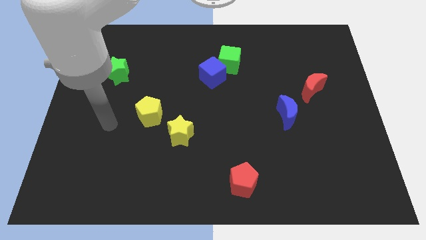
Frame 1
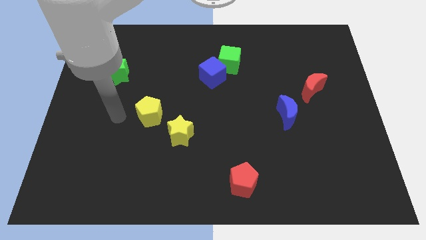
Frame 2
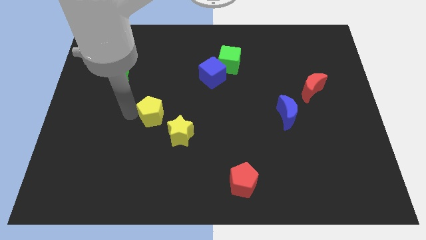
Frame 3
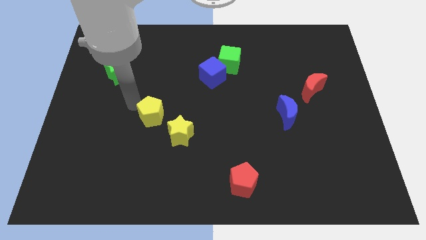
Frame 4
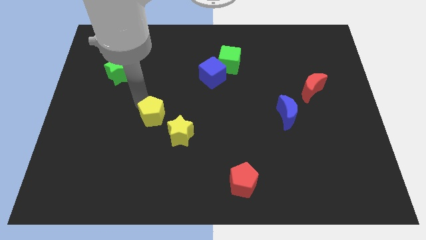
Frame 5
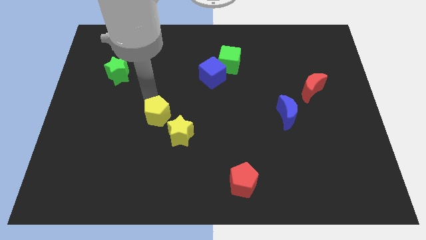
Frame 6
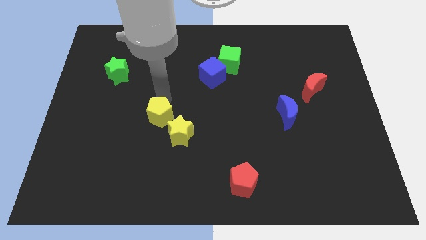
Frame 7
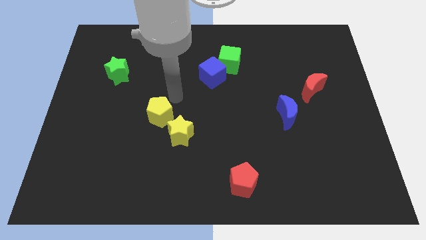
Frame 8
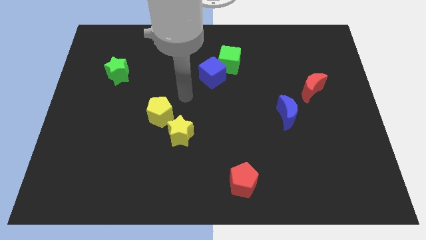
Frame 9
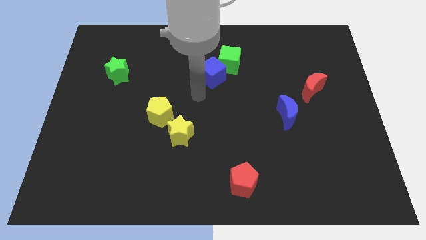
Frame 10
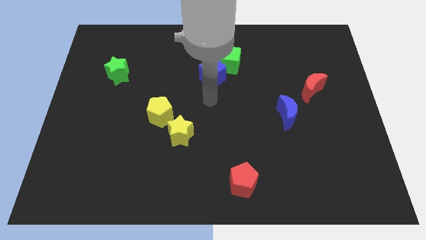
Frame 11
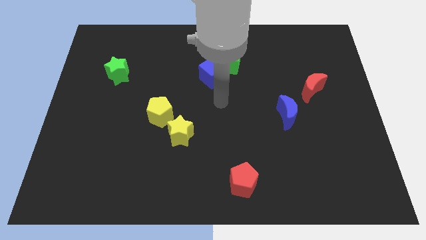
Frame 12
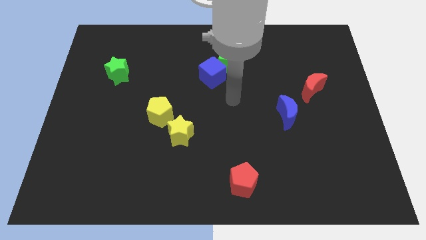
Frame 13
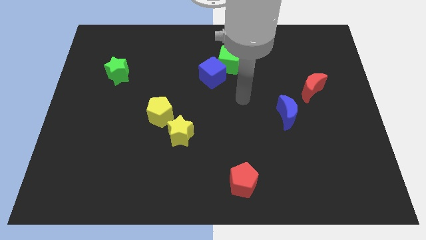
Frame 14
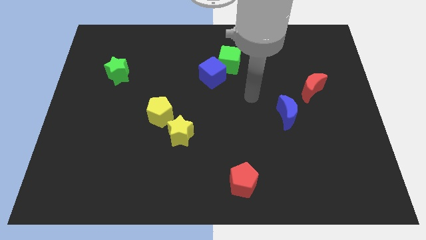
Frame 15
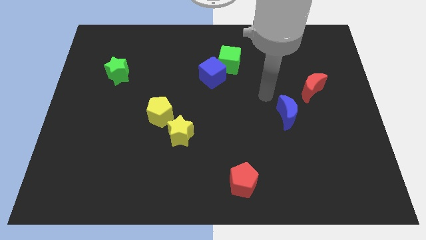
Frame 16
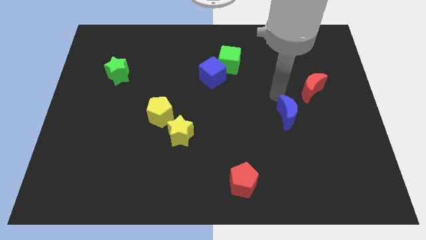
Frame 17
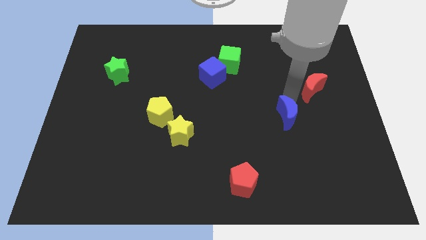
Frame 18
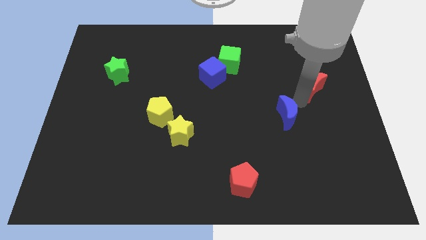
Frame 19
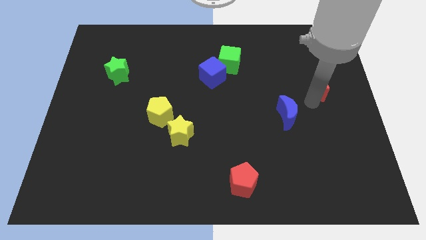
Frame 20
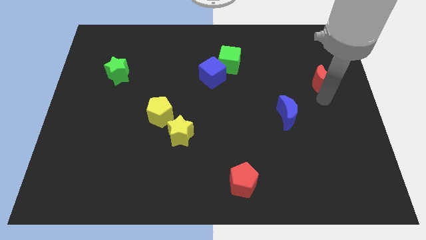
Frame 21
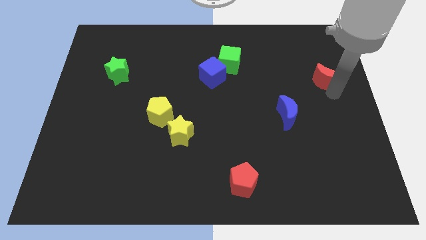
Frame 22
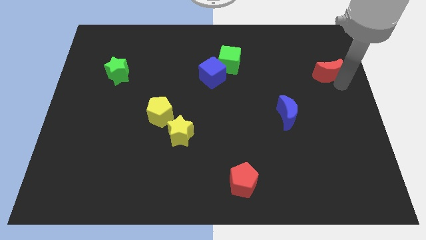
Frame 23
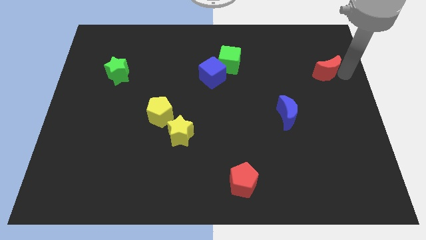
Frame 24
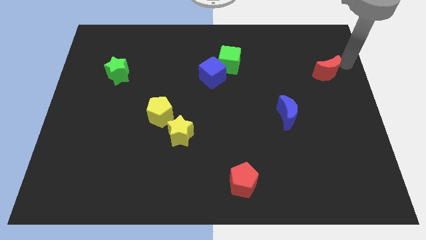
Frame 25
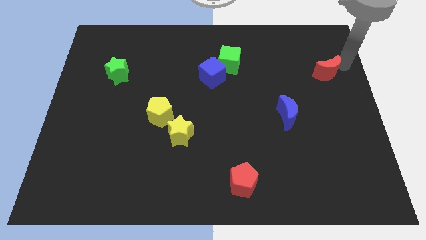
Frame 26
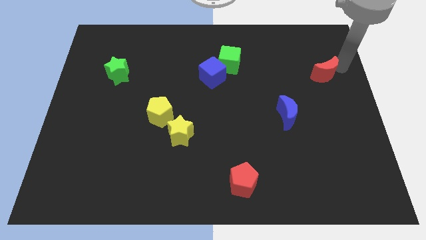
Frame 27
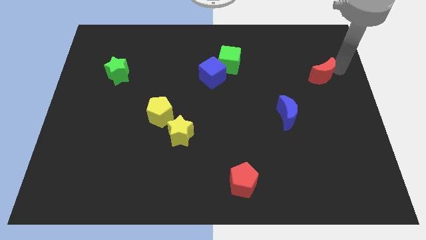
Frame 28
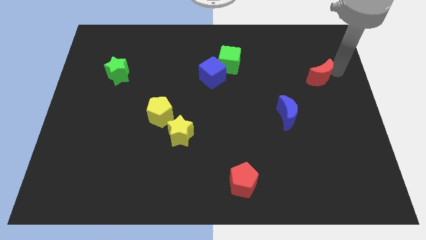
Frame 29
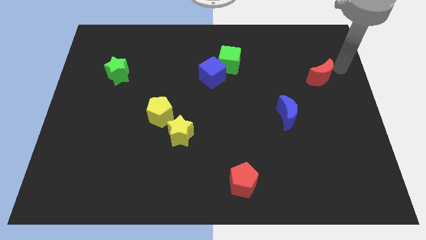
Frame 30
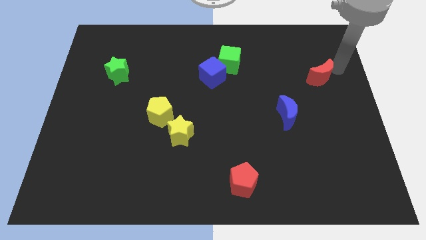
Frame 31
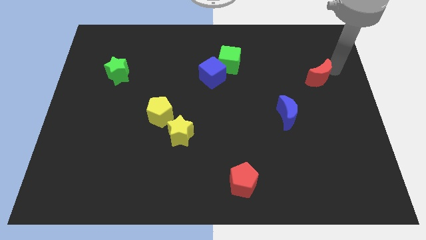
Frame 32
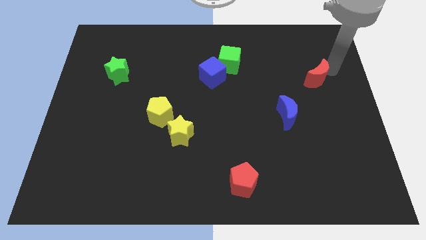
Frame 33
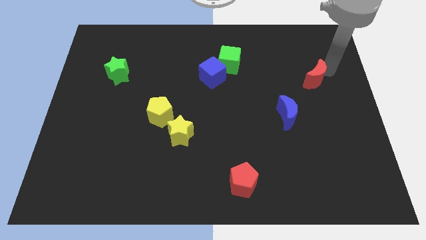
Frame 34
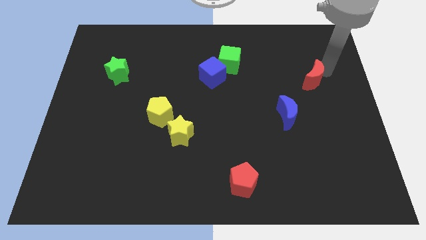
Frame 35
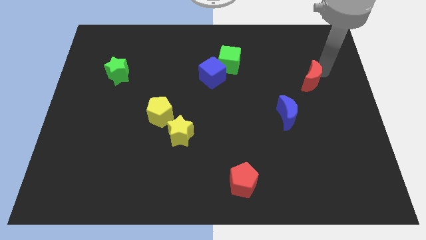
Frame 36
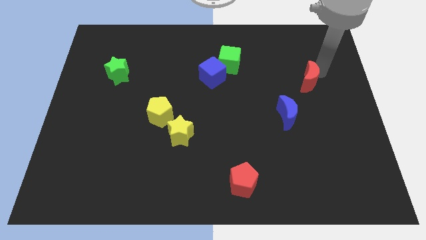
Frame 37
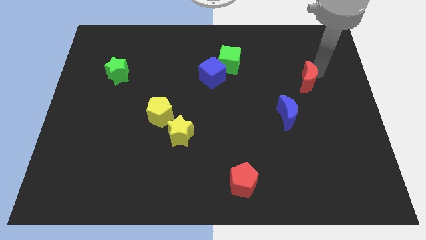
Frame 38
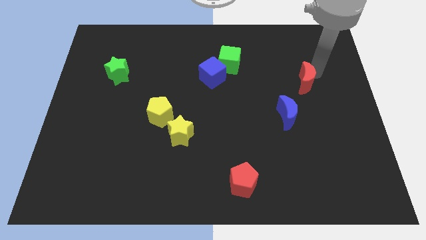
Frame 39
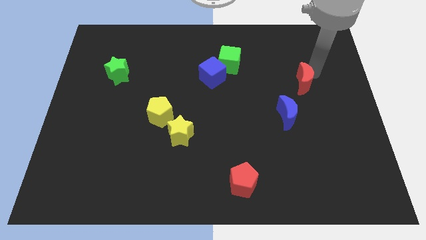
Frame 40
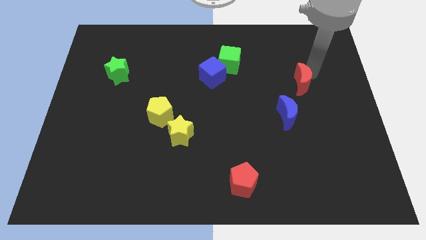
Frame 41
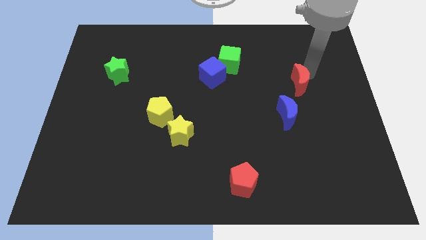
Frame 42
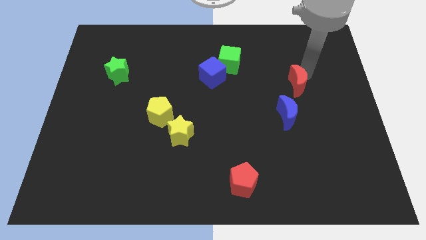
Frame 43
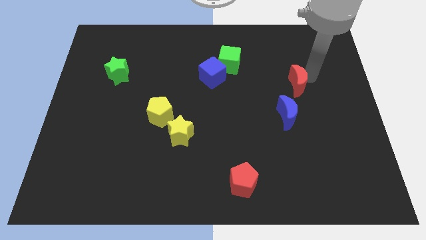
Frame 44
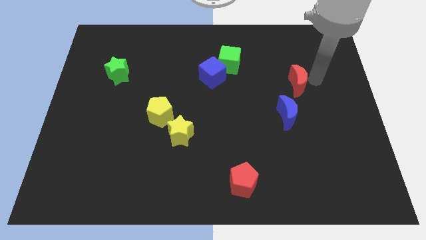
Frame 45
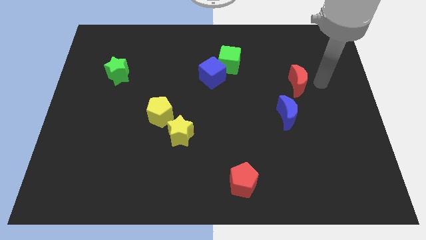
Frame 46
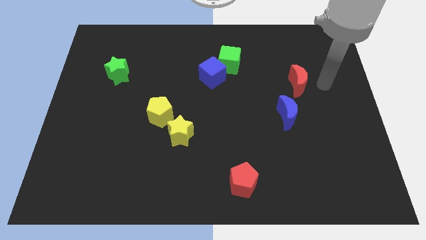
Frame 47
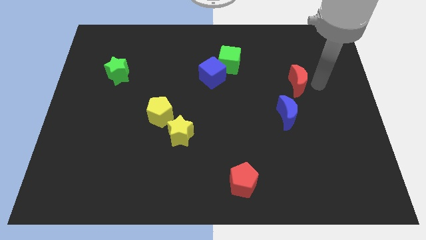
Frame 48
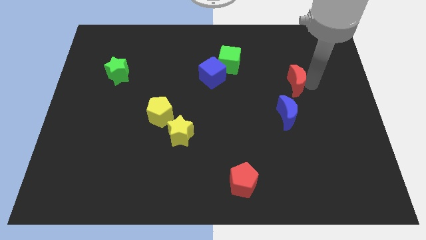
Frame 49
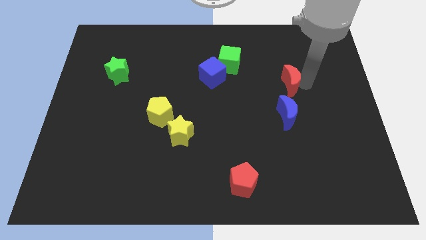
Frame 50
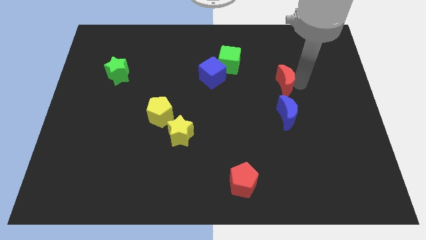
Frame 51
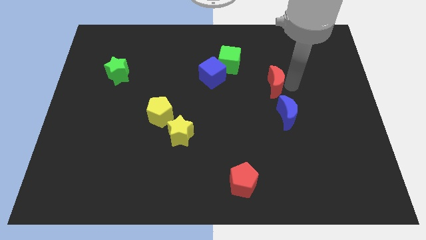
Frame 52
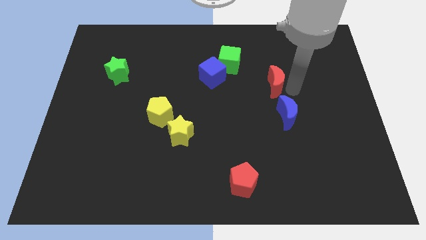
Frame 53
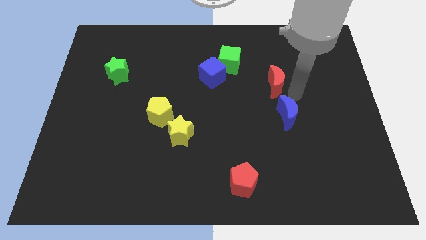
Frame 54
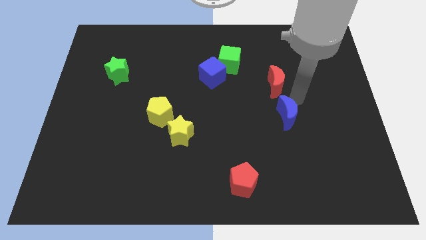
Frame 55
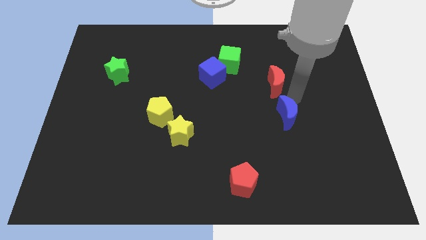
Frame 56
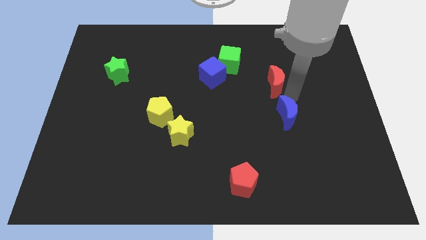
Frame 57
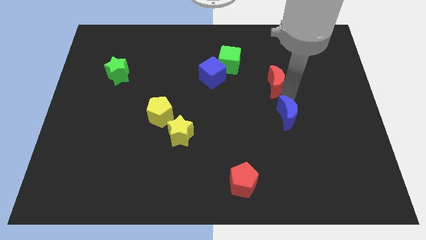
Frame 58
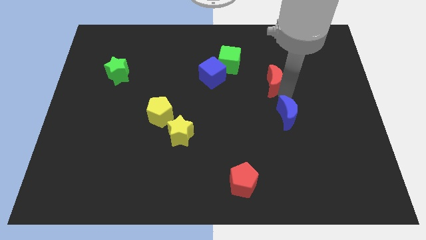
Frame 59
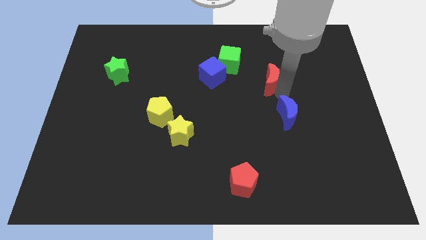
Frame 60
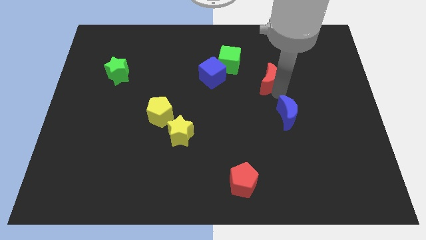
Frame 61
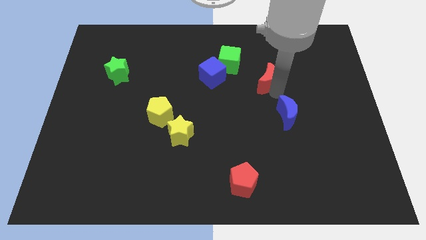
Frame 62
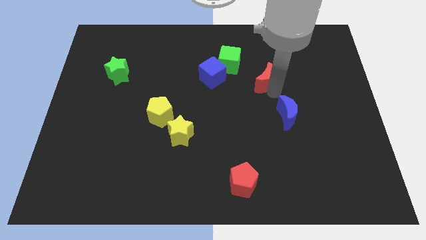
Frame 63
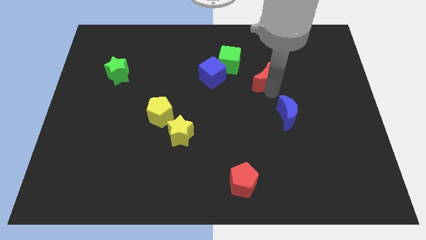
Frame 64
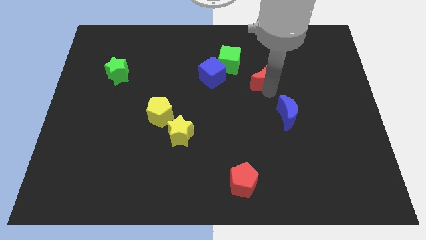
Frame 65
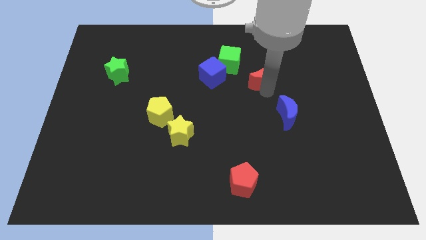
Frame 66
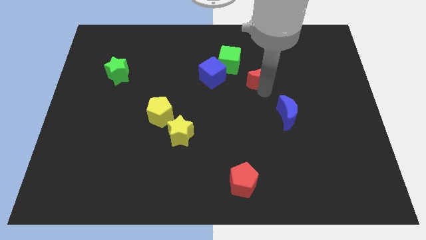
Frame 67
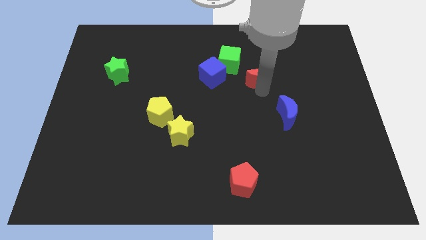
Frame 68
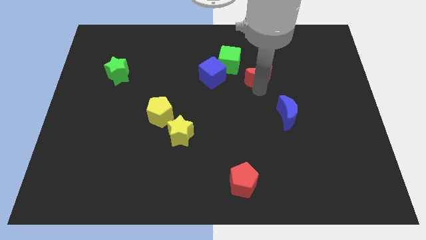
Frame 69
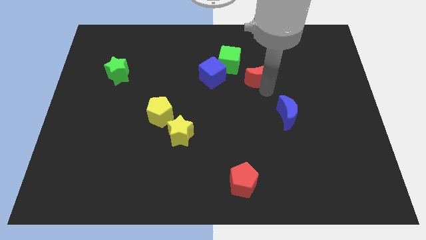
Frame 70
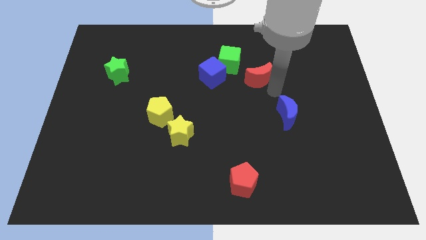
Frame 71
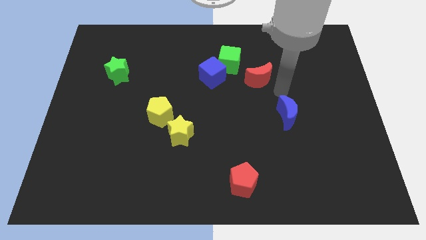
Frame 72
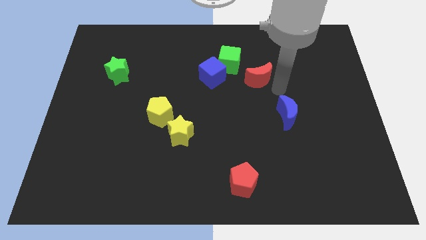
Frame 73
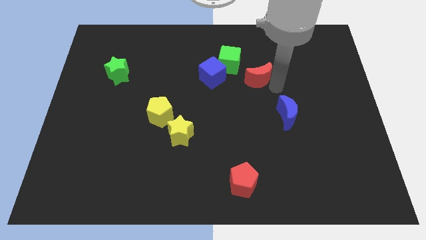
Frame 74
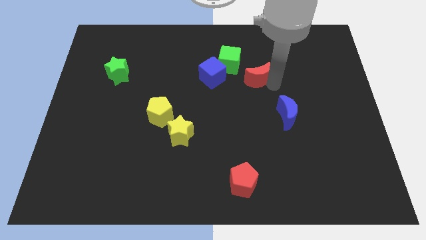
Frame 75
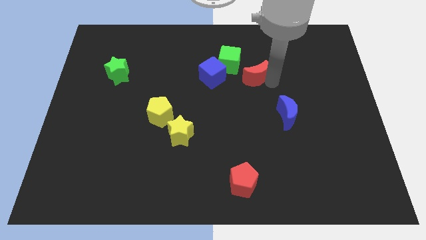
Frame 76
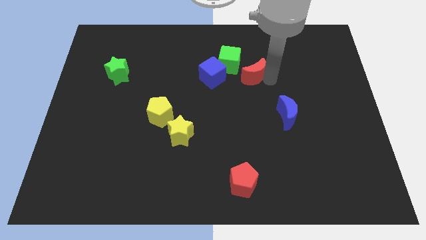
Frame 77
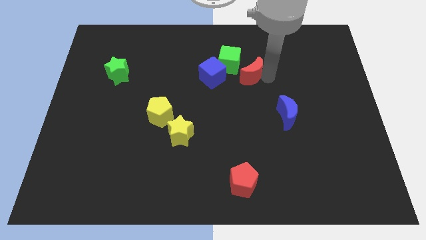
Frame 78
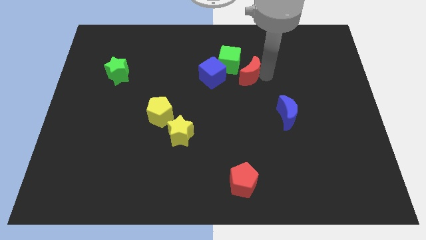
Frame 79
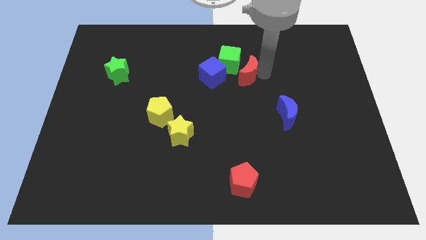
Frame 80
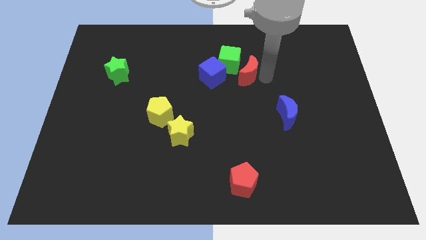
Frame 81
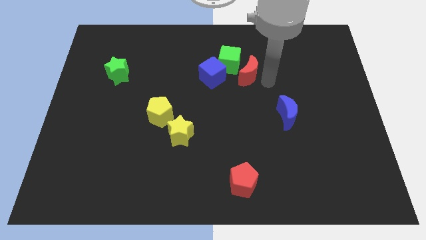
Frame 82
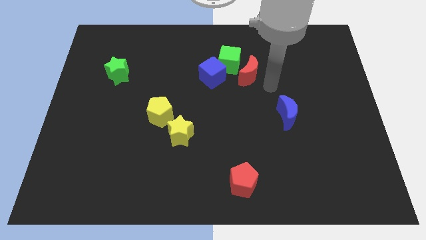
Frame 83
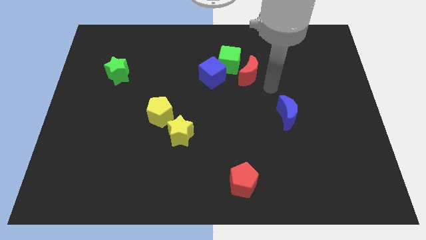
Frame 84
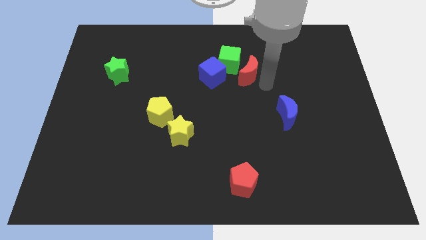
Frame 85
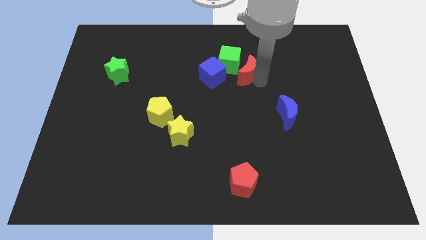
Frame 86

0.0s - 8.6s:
put the red moon close to the green cube
